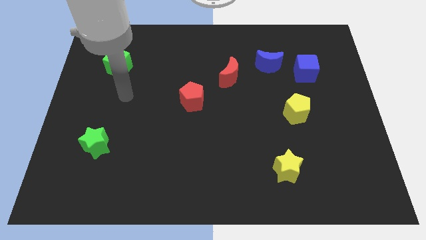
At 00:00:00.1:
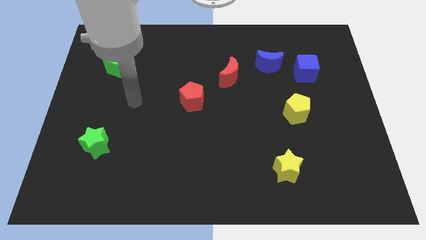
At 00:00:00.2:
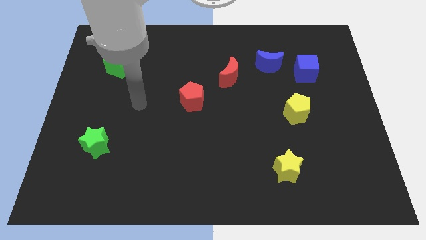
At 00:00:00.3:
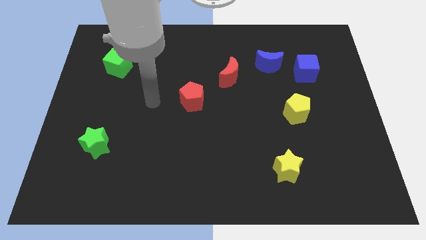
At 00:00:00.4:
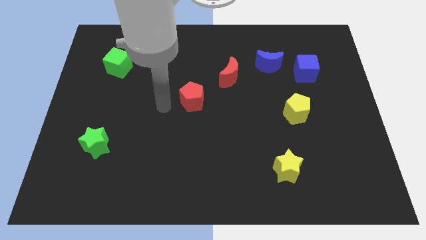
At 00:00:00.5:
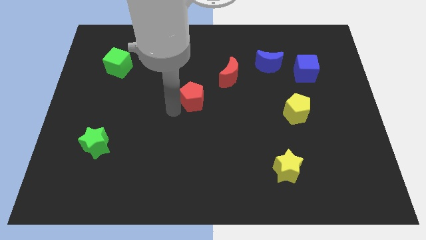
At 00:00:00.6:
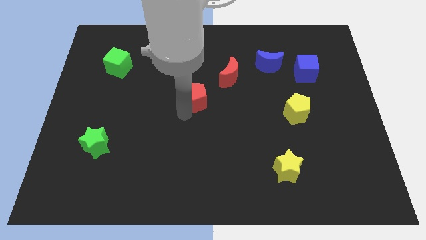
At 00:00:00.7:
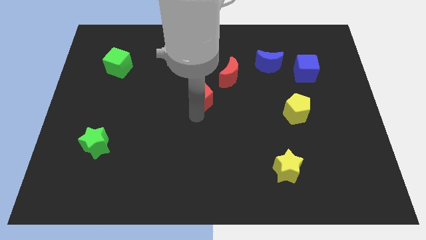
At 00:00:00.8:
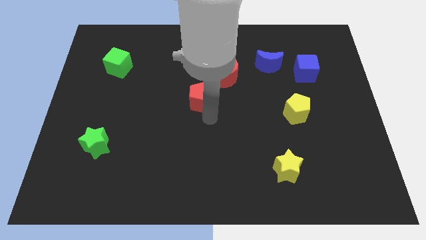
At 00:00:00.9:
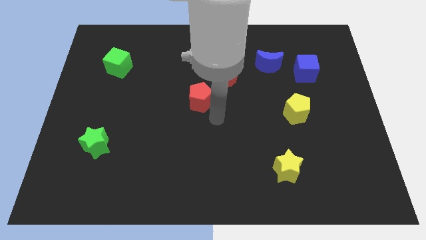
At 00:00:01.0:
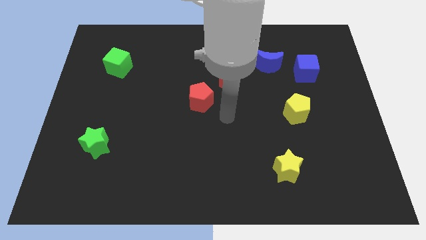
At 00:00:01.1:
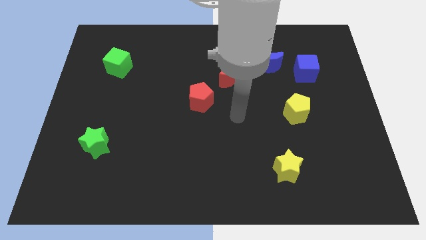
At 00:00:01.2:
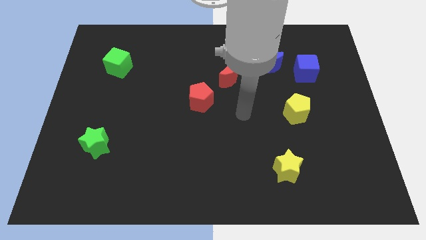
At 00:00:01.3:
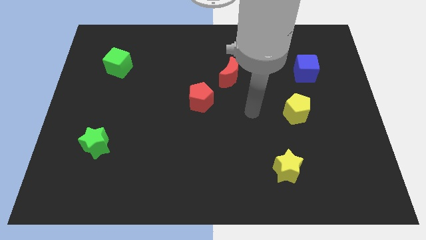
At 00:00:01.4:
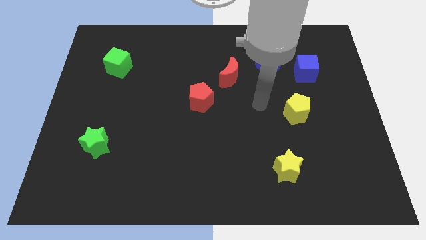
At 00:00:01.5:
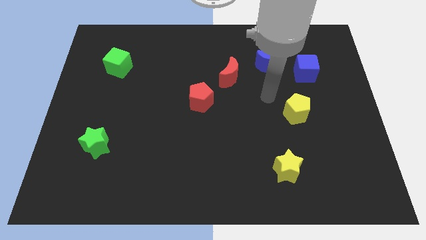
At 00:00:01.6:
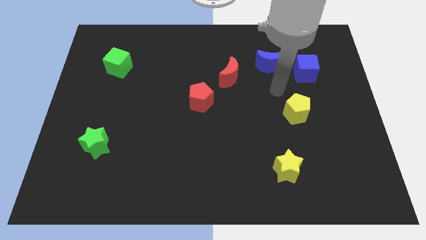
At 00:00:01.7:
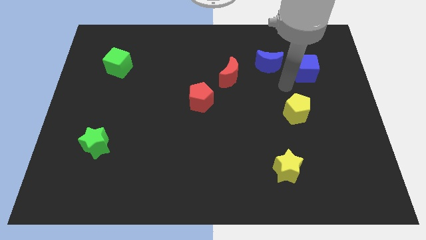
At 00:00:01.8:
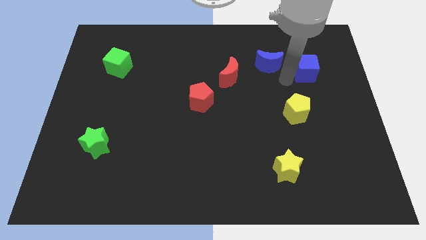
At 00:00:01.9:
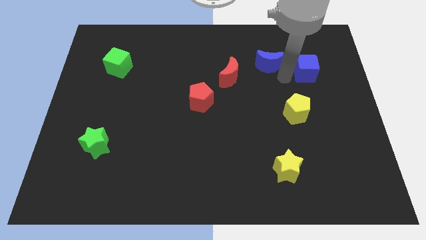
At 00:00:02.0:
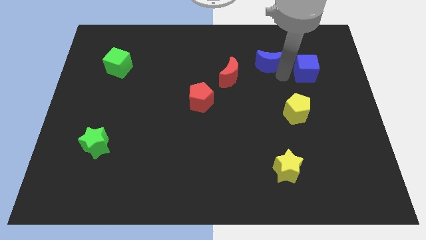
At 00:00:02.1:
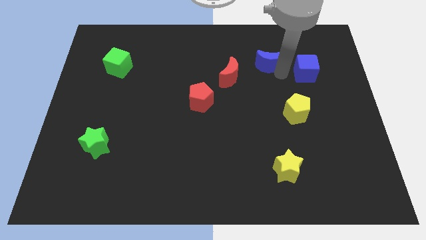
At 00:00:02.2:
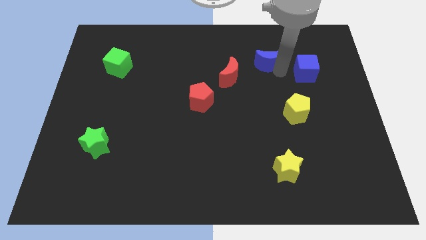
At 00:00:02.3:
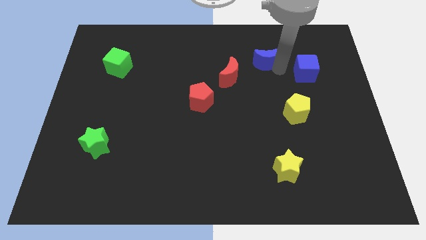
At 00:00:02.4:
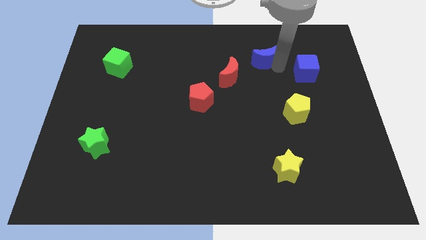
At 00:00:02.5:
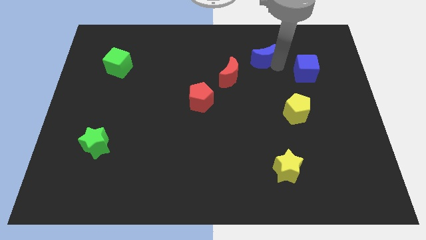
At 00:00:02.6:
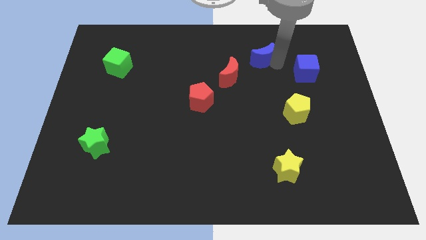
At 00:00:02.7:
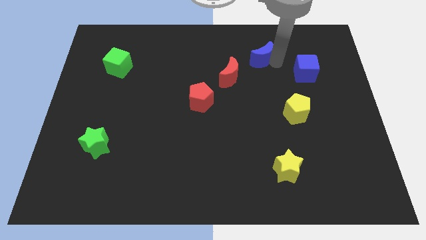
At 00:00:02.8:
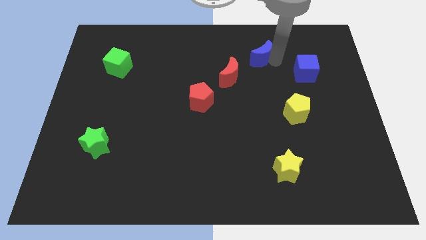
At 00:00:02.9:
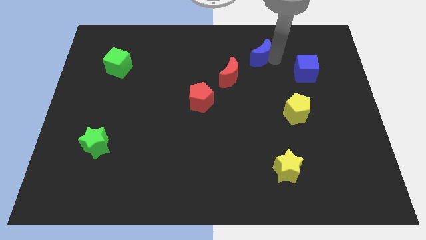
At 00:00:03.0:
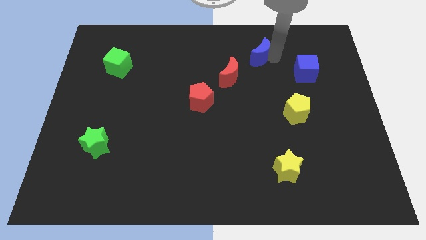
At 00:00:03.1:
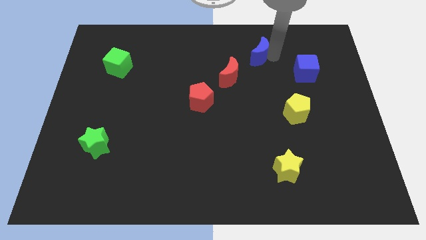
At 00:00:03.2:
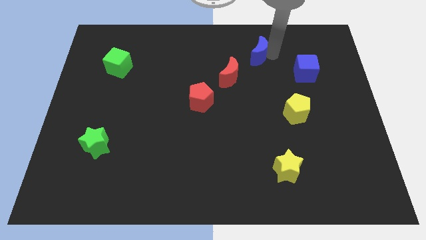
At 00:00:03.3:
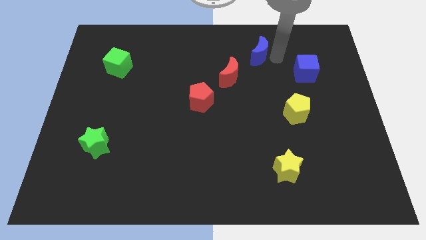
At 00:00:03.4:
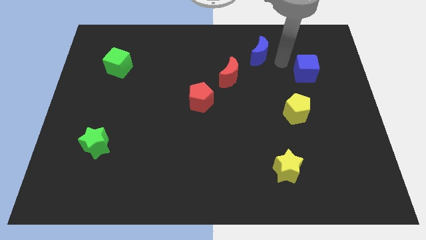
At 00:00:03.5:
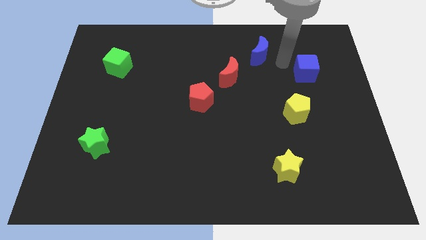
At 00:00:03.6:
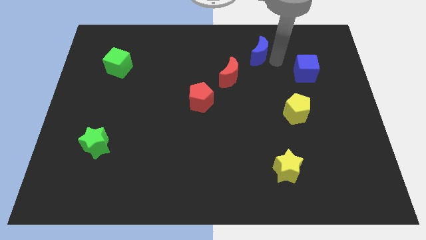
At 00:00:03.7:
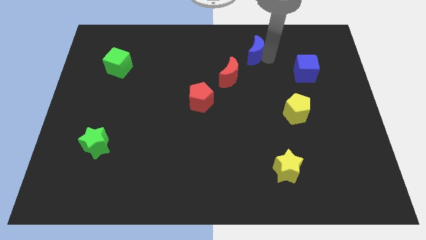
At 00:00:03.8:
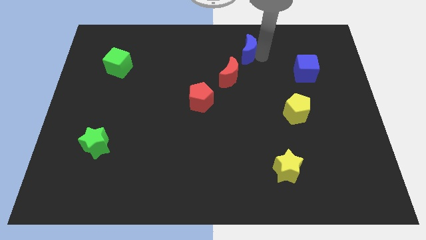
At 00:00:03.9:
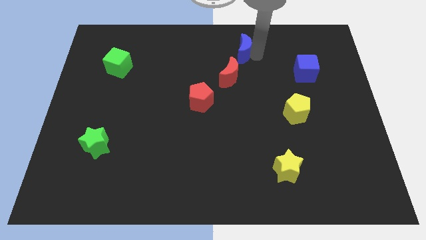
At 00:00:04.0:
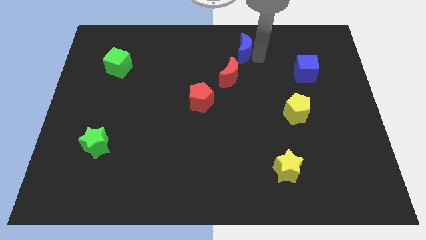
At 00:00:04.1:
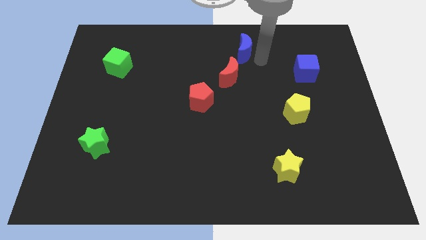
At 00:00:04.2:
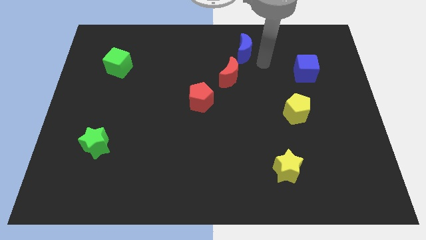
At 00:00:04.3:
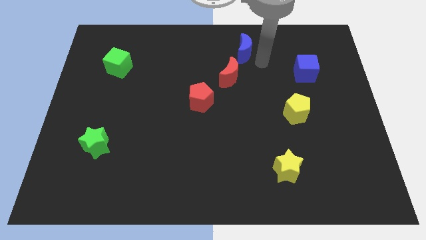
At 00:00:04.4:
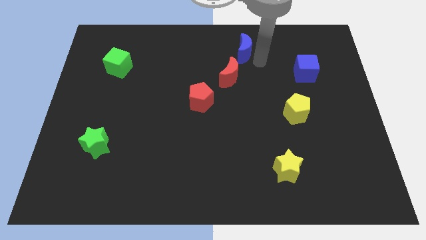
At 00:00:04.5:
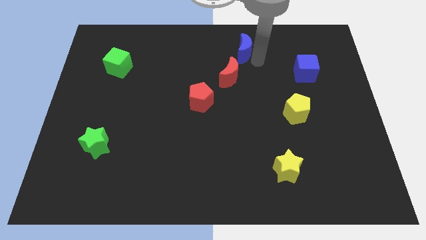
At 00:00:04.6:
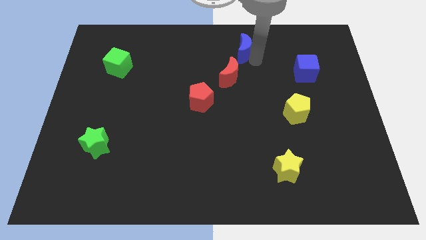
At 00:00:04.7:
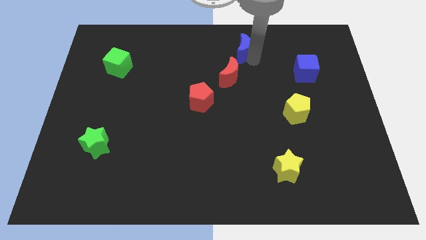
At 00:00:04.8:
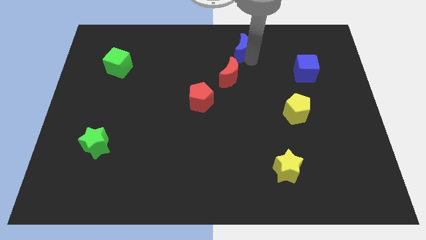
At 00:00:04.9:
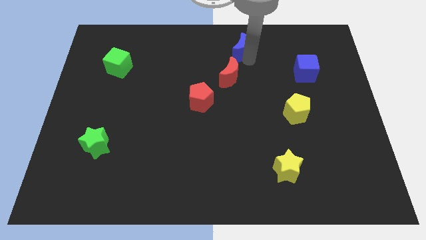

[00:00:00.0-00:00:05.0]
move the blue moon to the top side

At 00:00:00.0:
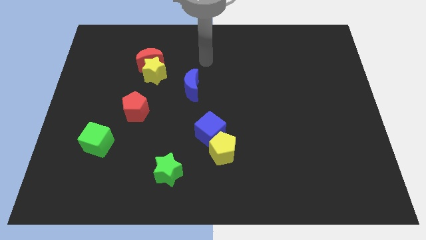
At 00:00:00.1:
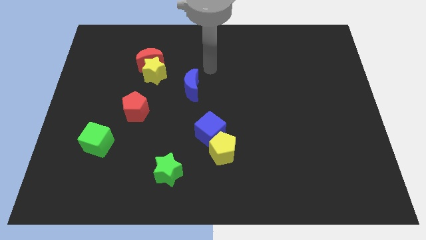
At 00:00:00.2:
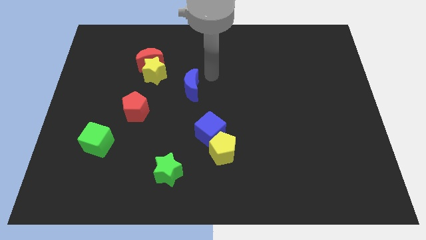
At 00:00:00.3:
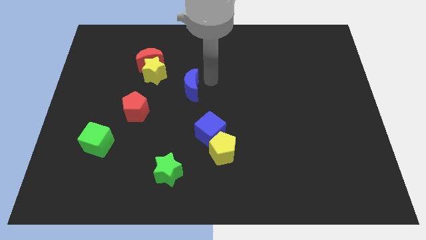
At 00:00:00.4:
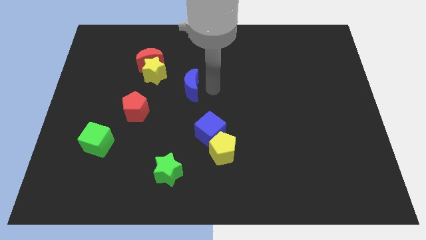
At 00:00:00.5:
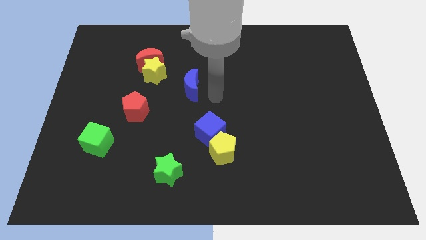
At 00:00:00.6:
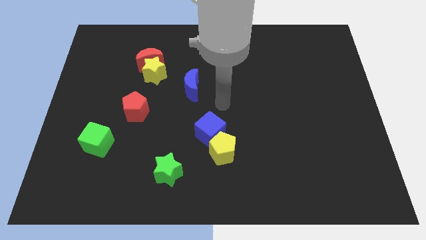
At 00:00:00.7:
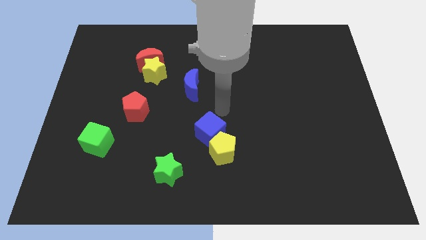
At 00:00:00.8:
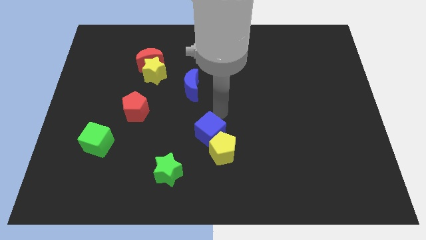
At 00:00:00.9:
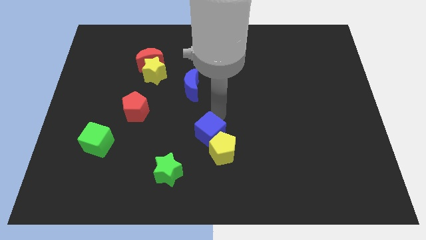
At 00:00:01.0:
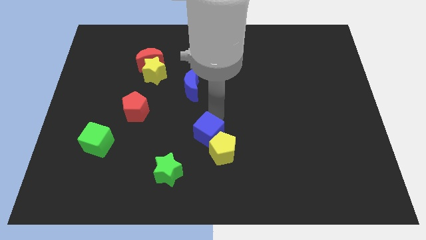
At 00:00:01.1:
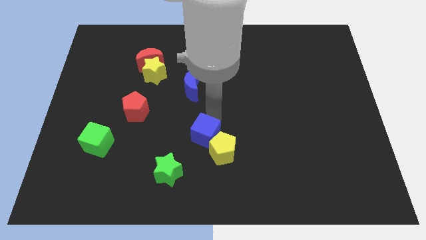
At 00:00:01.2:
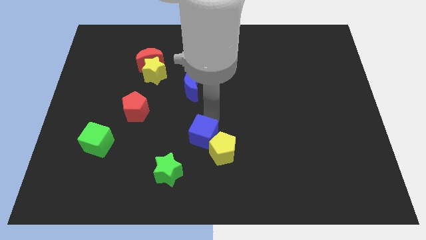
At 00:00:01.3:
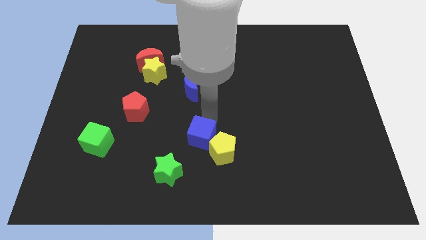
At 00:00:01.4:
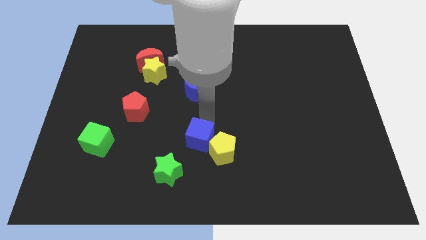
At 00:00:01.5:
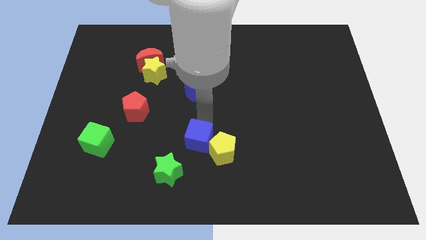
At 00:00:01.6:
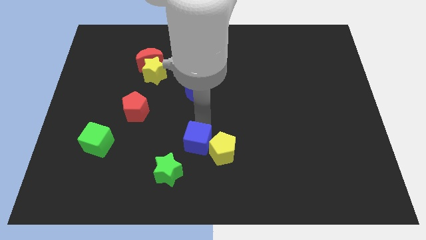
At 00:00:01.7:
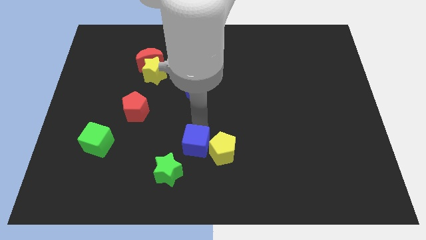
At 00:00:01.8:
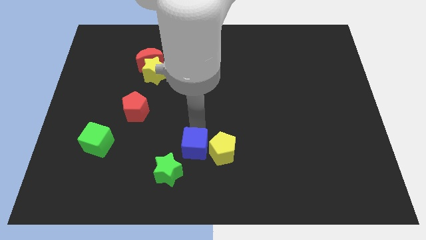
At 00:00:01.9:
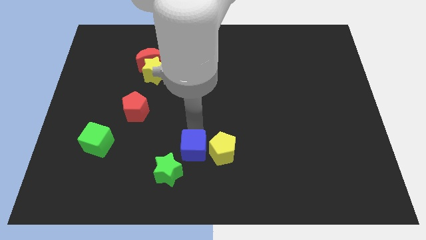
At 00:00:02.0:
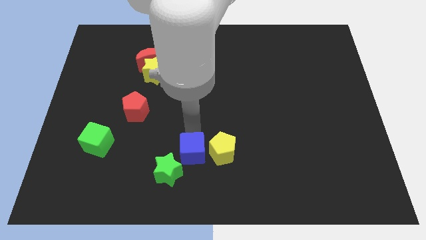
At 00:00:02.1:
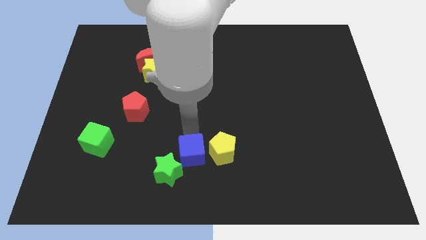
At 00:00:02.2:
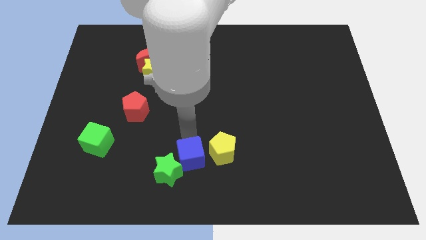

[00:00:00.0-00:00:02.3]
slide the blue cube to the bottom side
